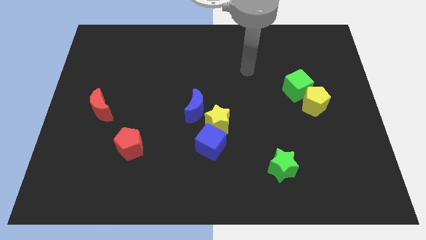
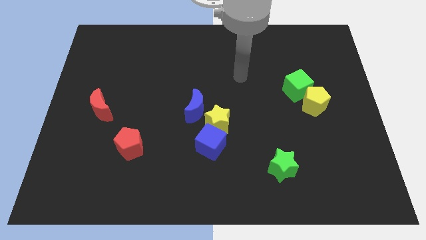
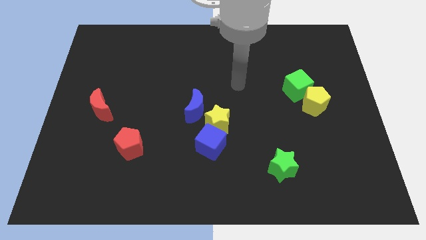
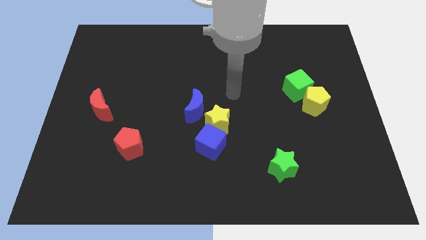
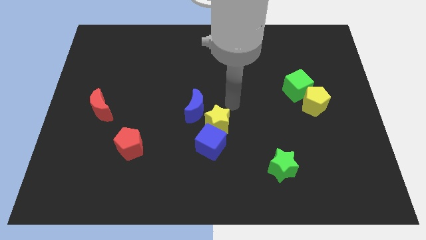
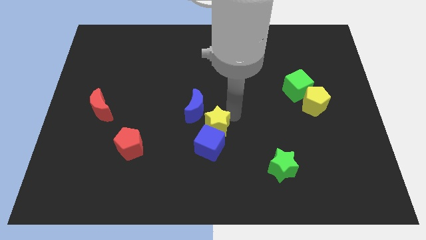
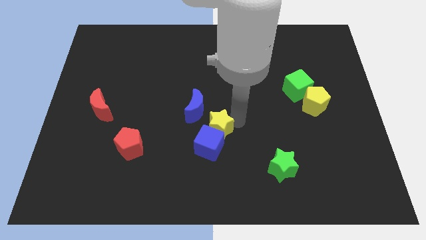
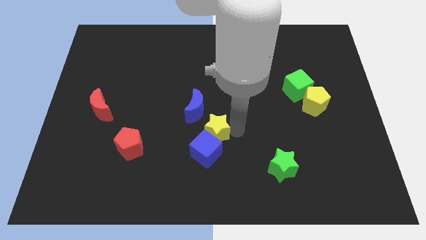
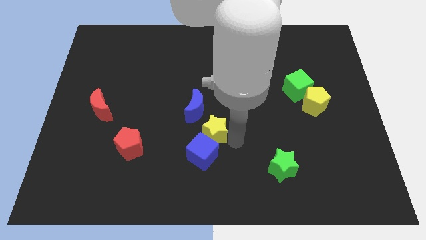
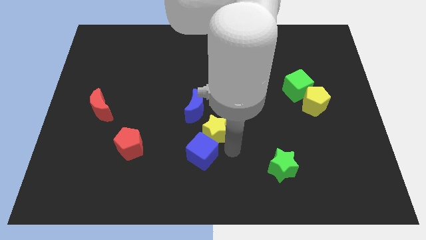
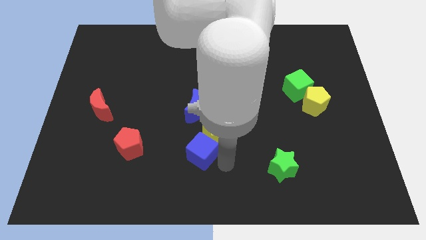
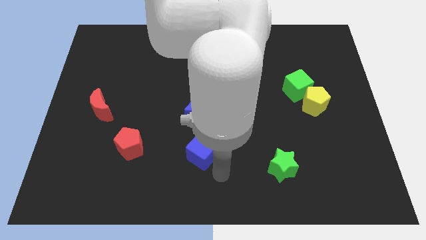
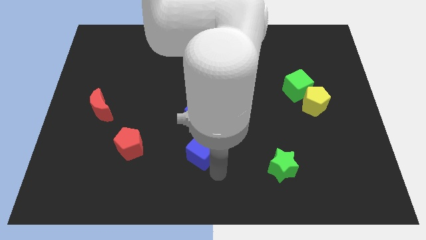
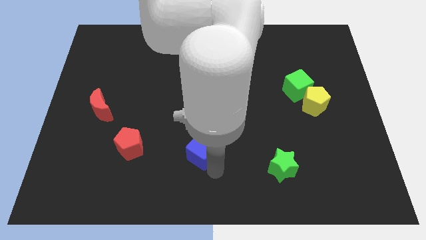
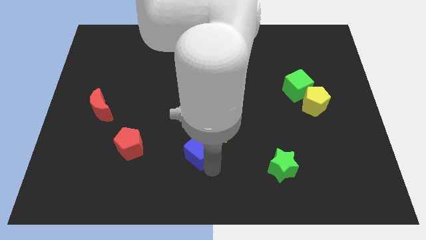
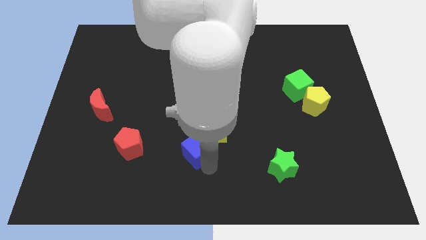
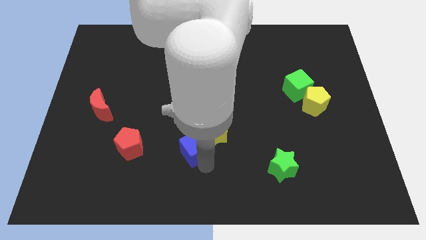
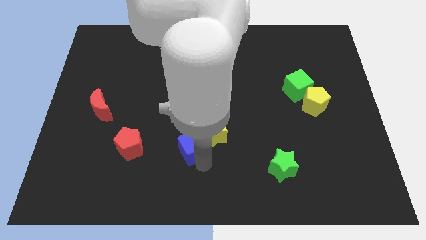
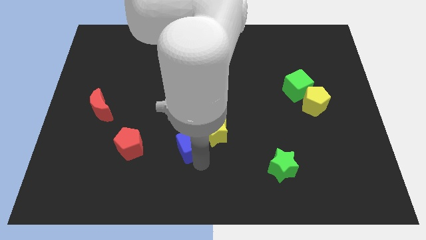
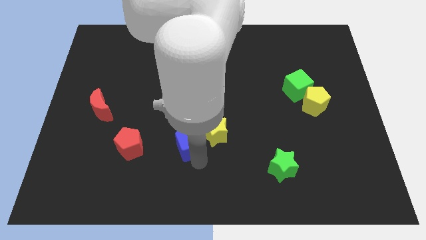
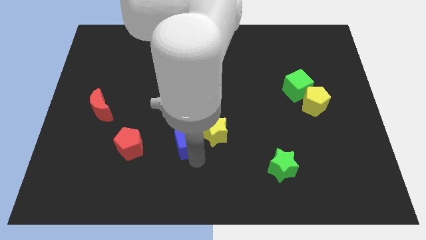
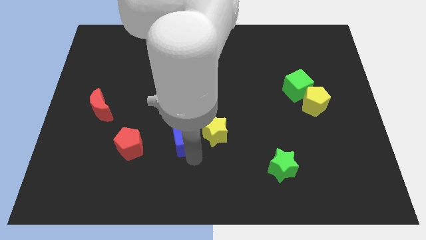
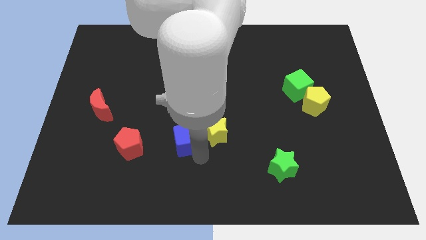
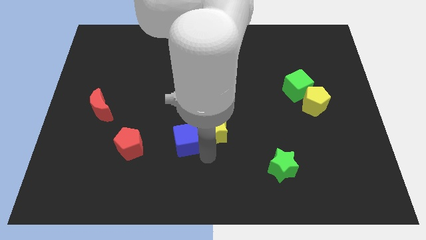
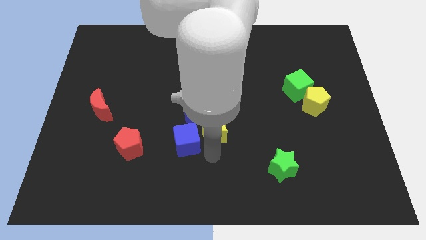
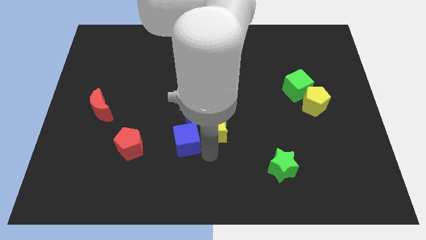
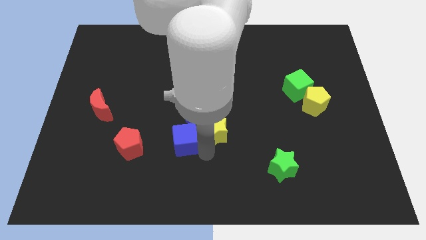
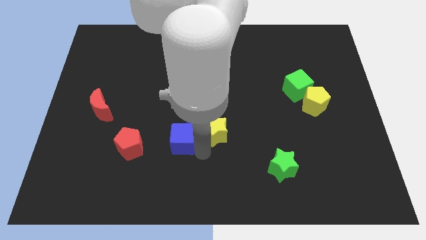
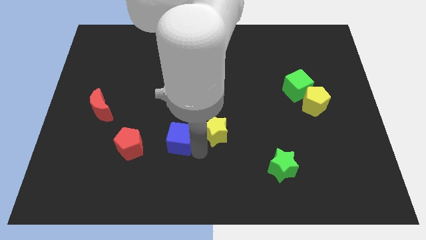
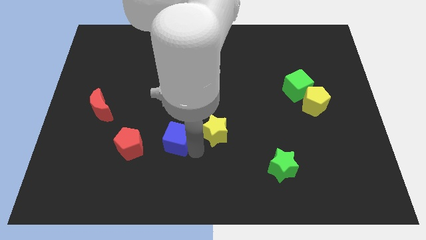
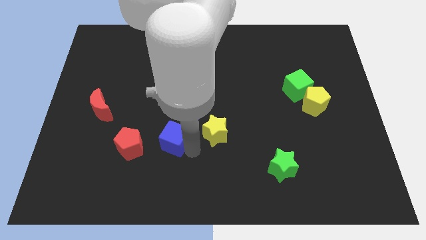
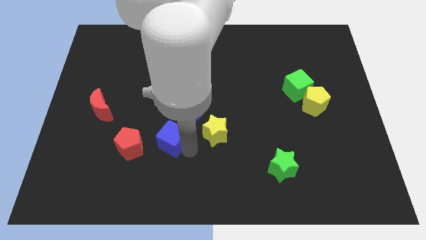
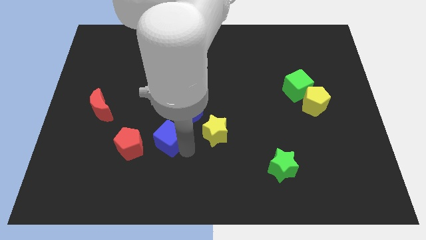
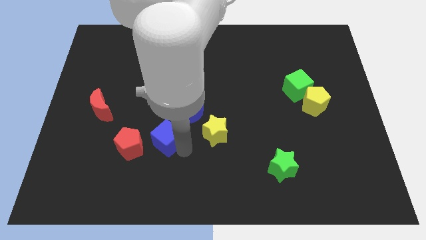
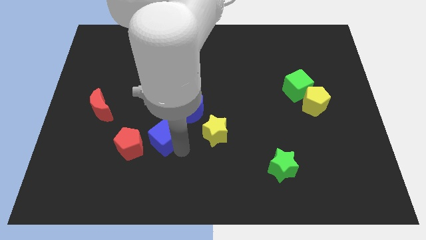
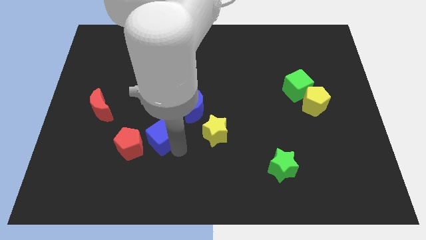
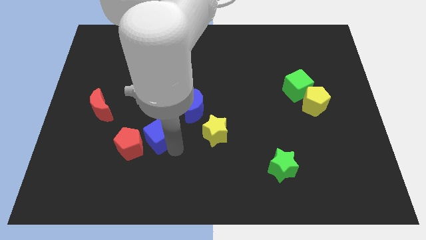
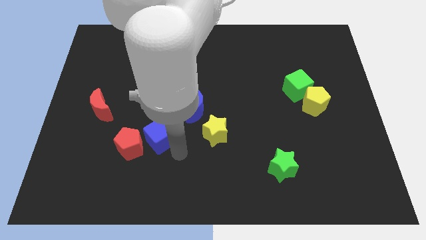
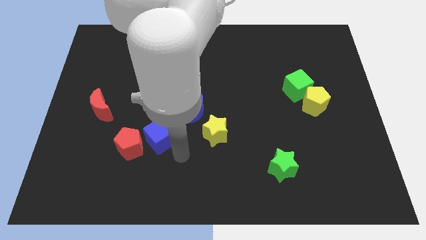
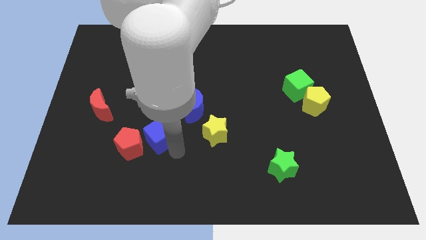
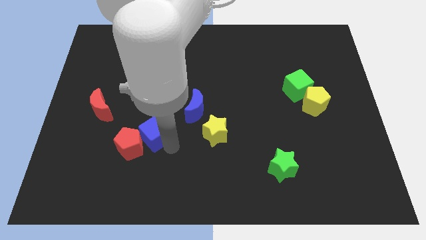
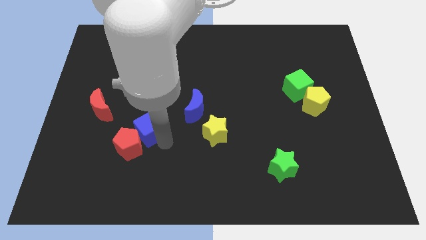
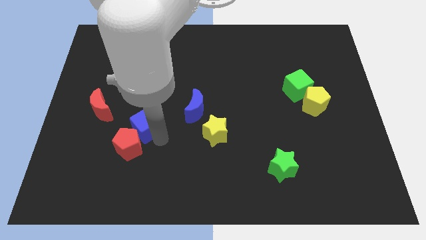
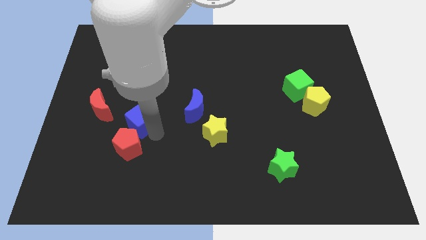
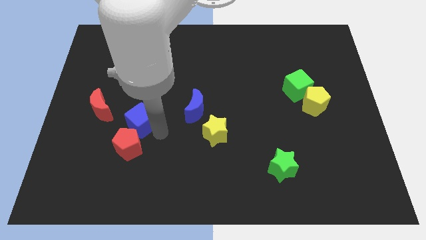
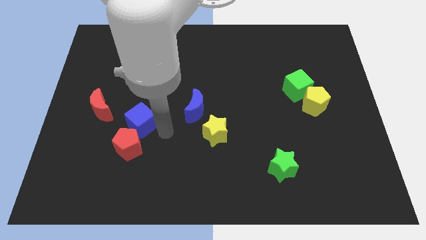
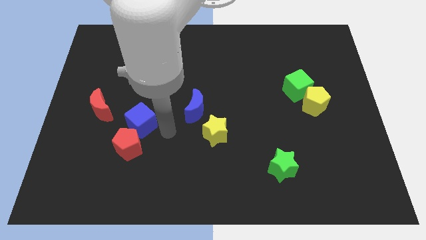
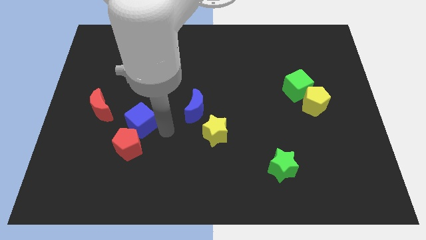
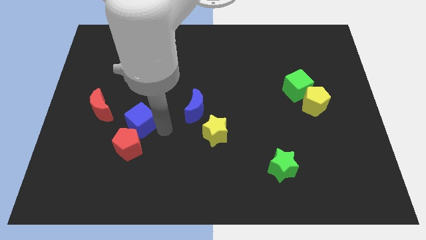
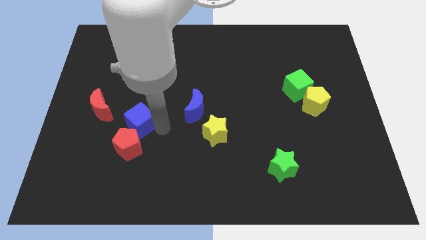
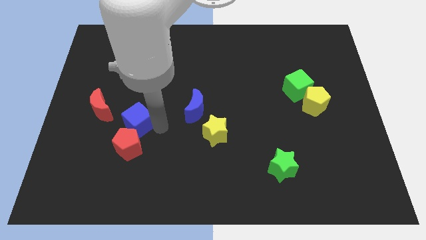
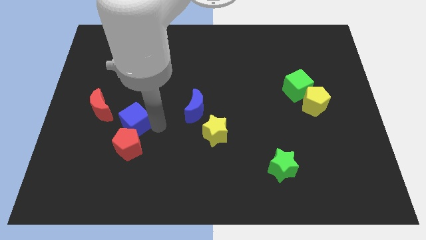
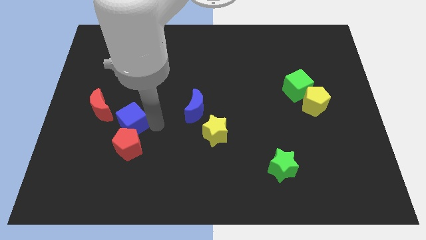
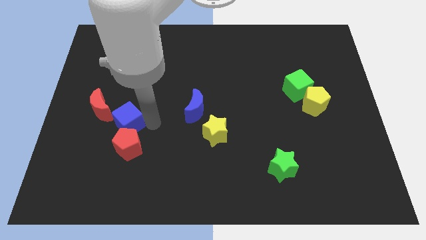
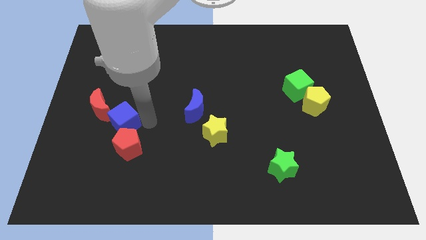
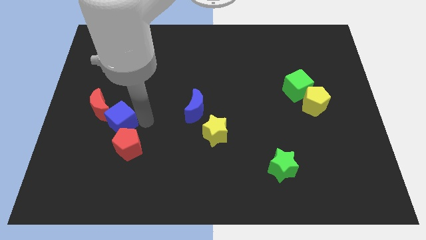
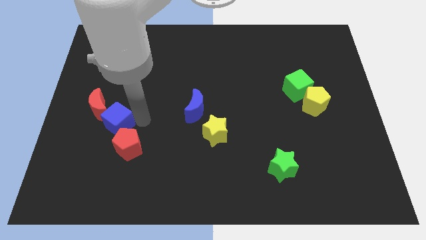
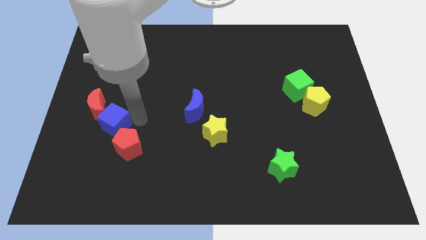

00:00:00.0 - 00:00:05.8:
put the blue cube towards the red moon

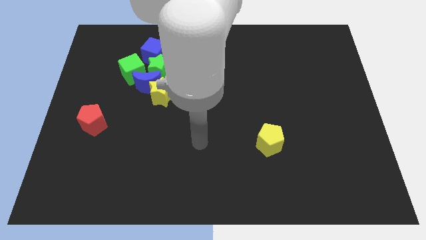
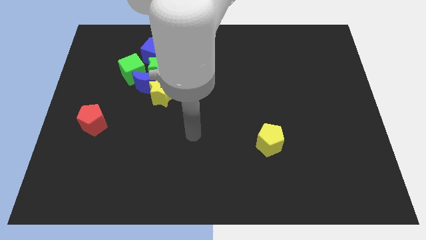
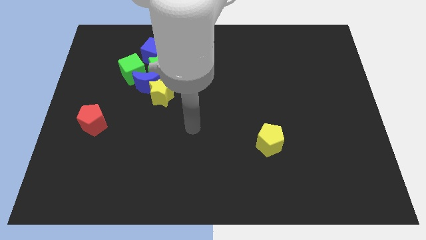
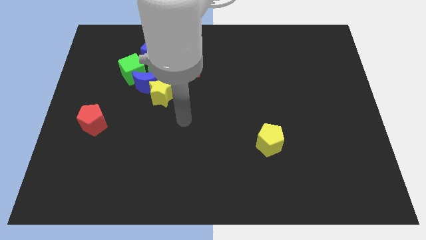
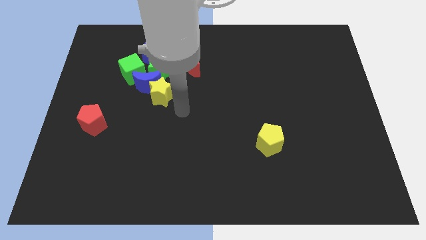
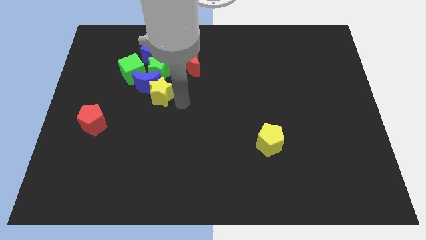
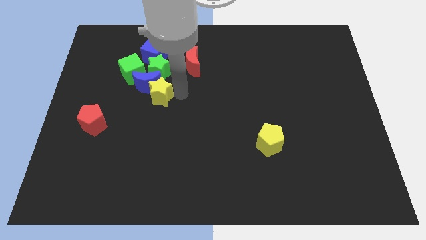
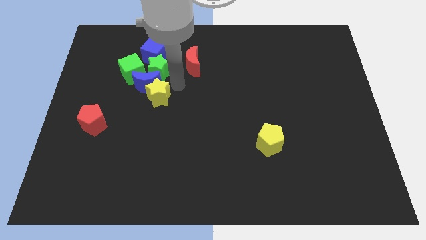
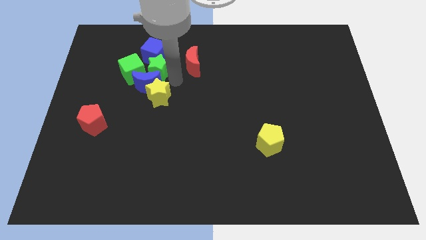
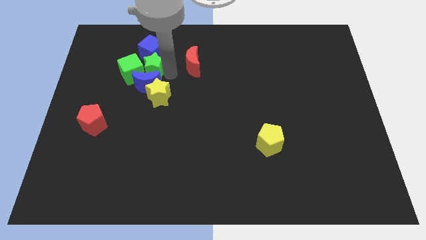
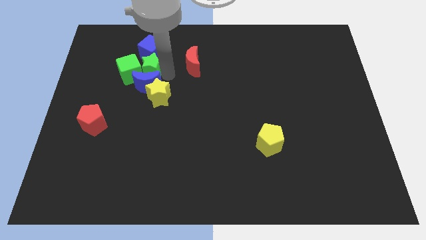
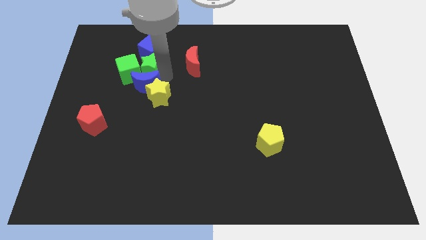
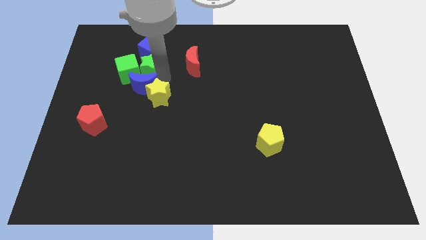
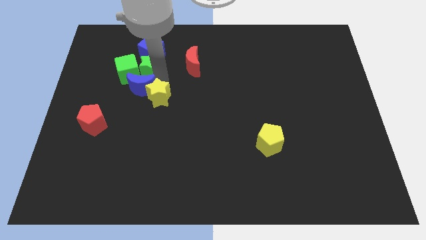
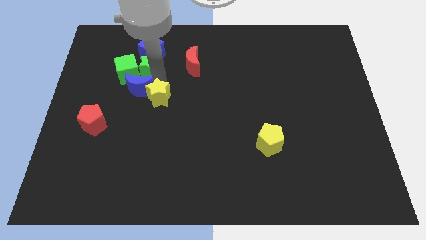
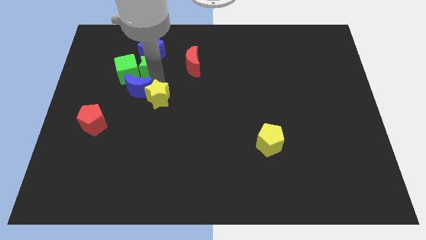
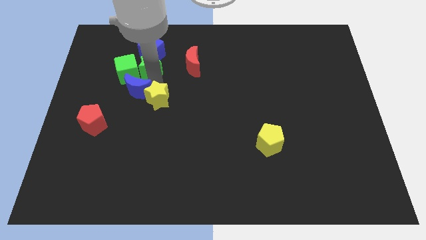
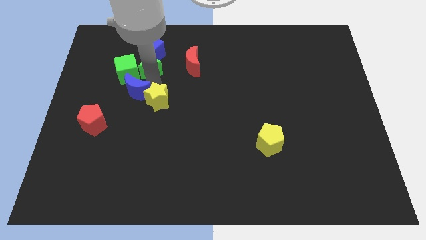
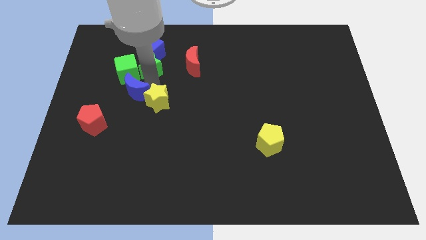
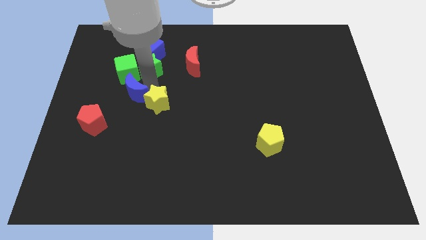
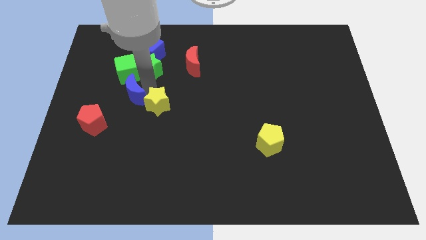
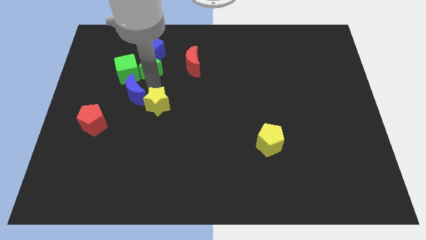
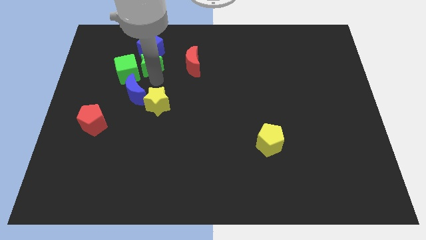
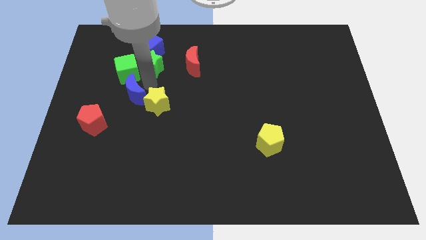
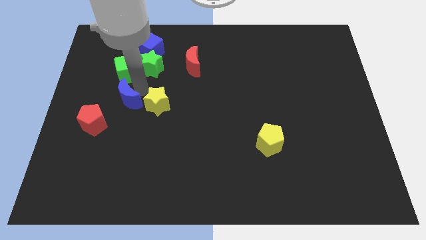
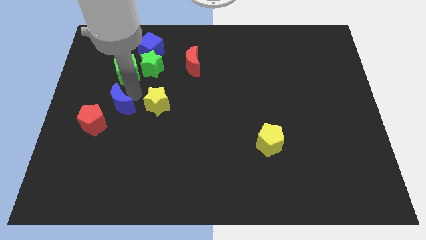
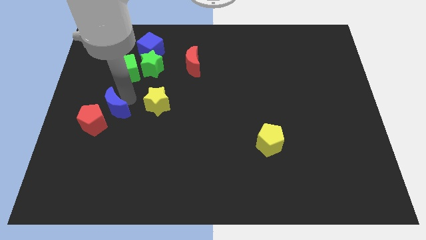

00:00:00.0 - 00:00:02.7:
move the blue moon towards the red pentagon
